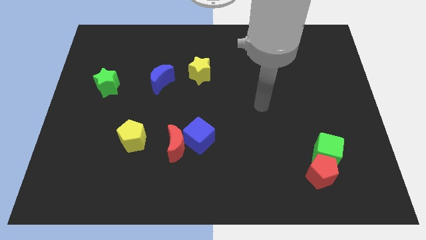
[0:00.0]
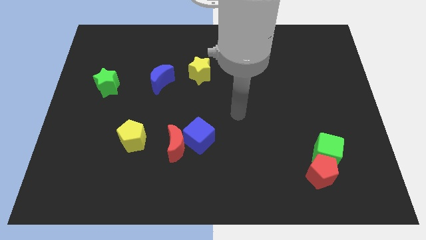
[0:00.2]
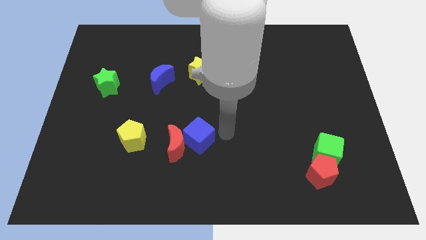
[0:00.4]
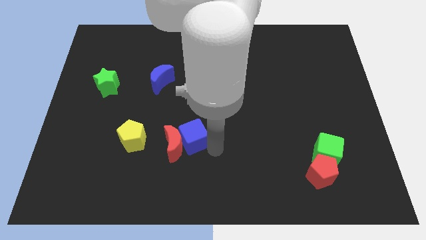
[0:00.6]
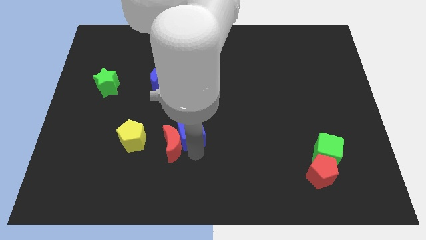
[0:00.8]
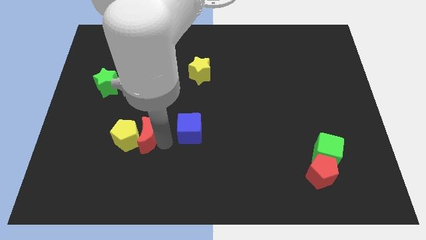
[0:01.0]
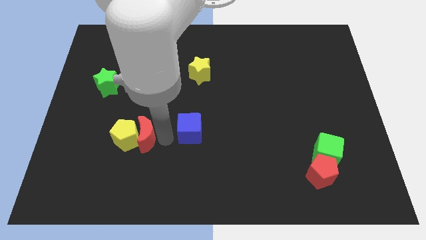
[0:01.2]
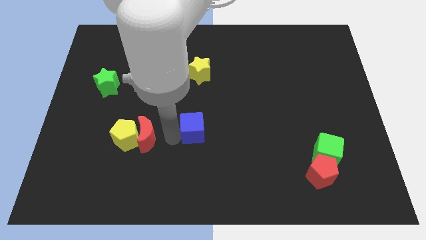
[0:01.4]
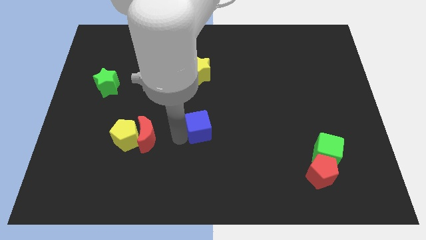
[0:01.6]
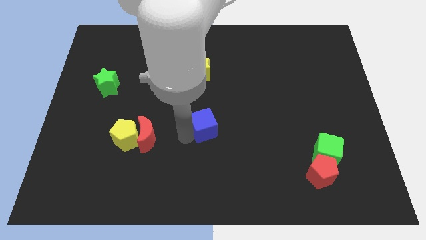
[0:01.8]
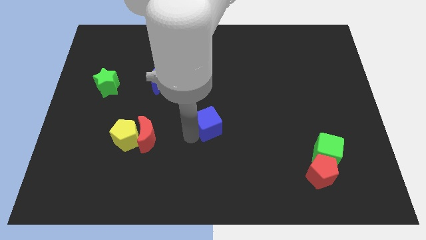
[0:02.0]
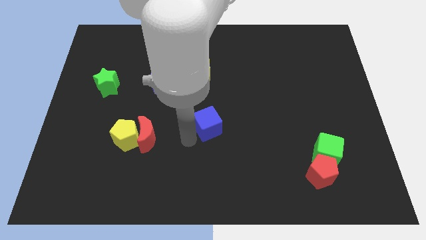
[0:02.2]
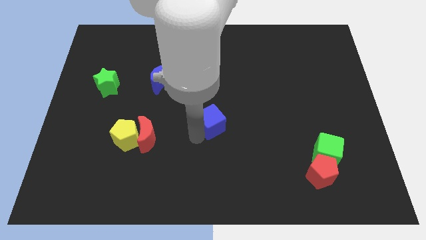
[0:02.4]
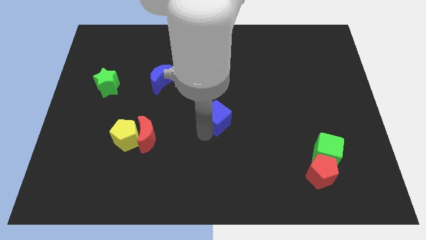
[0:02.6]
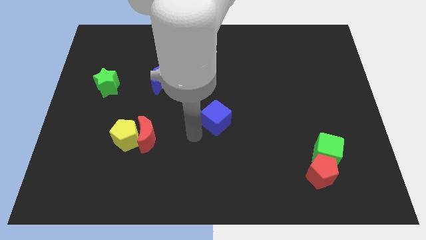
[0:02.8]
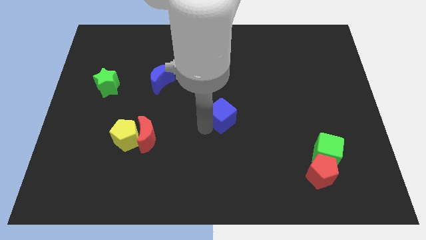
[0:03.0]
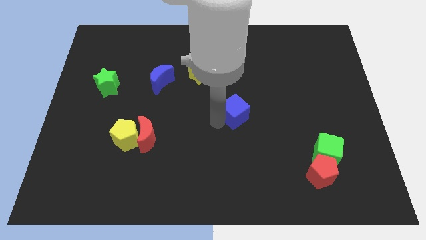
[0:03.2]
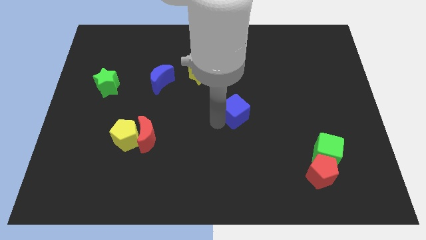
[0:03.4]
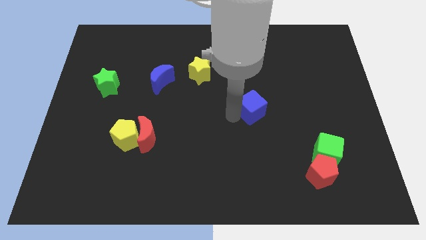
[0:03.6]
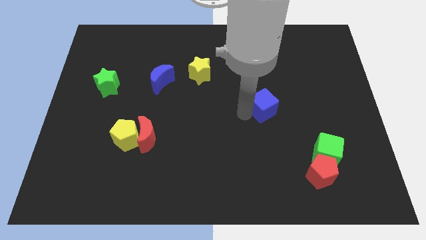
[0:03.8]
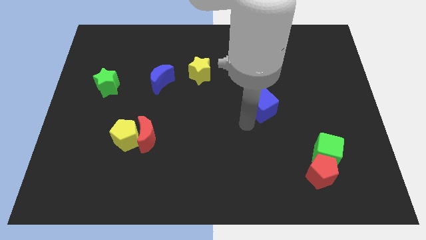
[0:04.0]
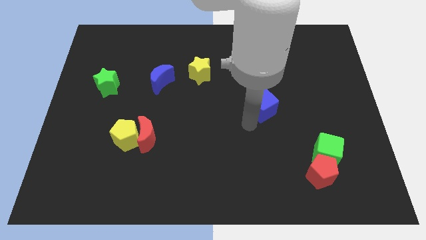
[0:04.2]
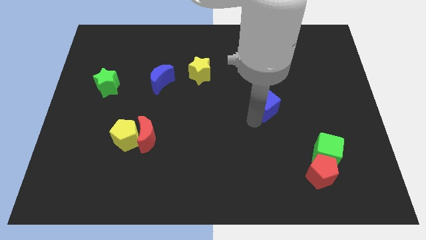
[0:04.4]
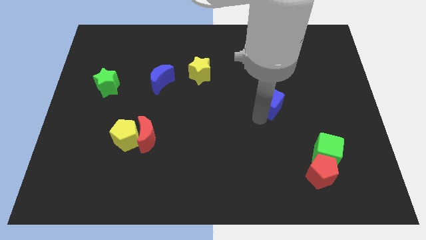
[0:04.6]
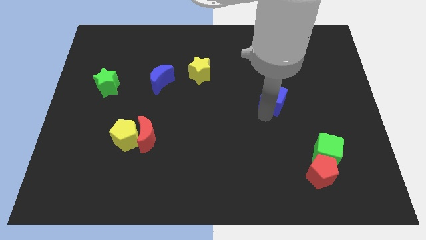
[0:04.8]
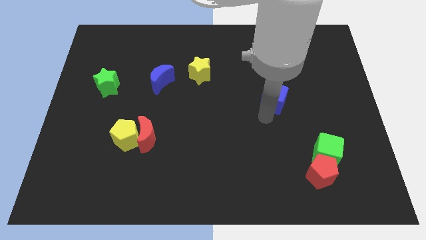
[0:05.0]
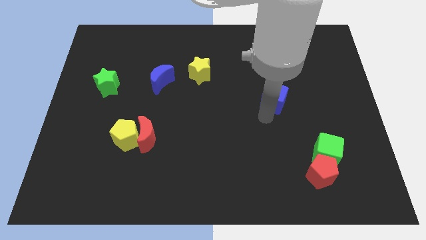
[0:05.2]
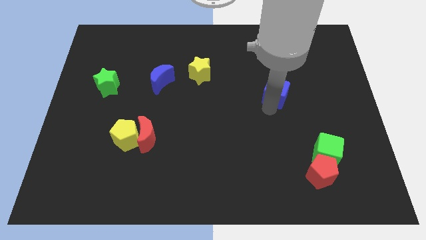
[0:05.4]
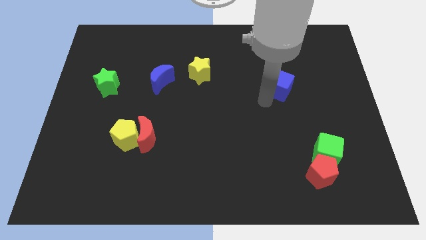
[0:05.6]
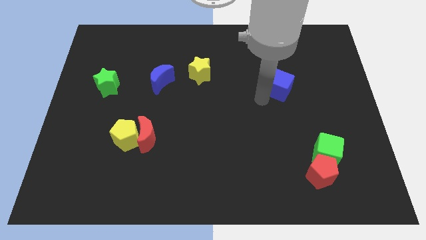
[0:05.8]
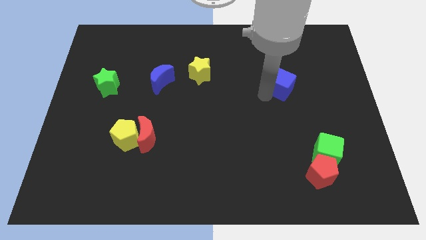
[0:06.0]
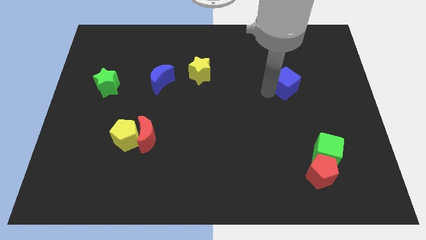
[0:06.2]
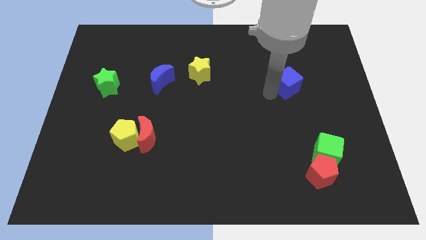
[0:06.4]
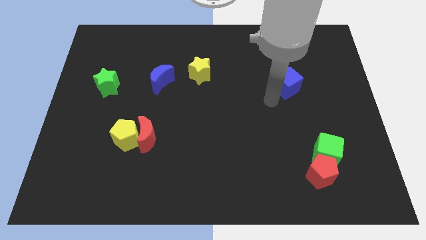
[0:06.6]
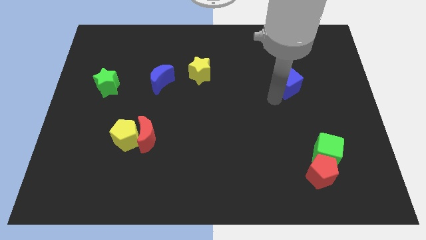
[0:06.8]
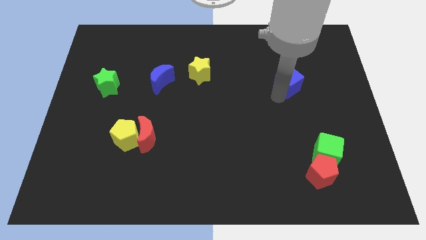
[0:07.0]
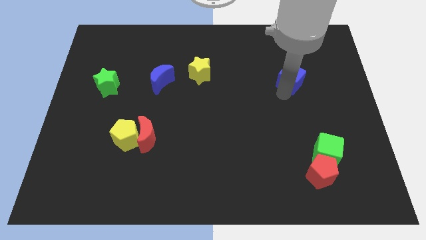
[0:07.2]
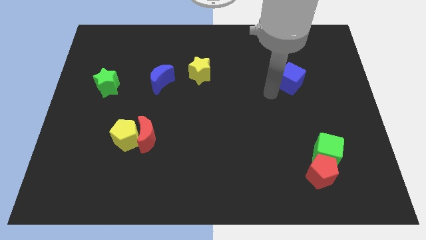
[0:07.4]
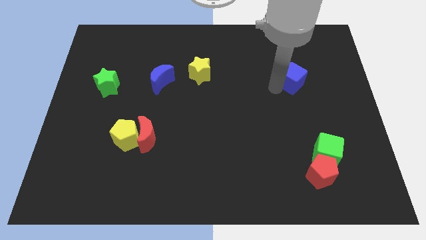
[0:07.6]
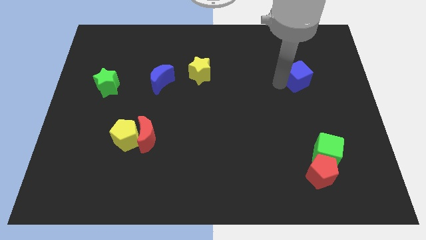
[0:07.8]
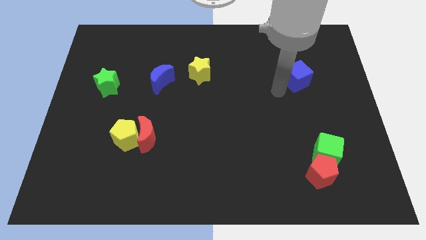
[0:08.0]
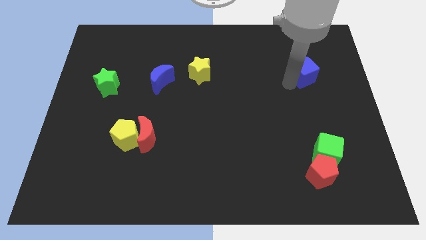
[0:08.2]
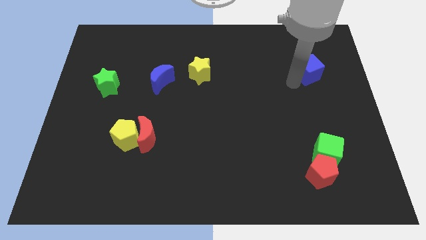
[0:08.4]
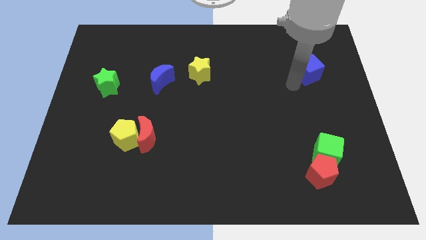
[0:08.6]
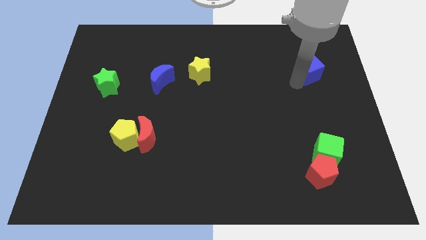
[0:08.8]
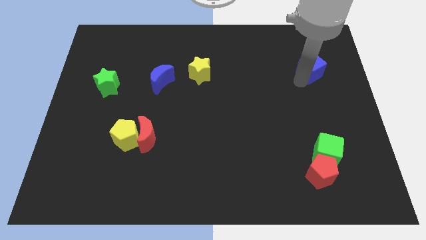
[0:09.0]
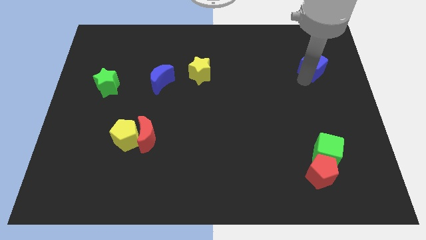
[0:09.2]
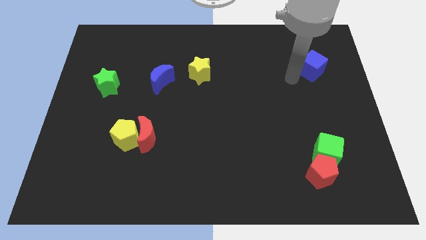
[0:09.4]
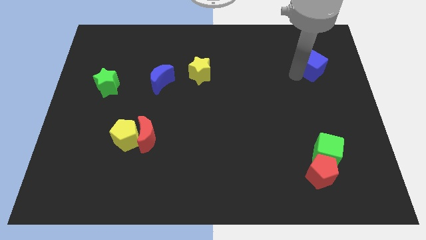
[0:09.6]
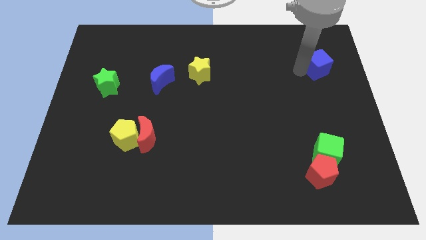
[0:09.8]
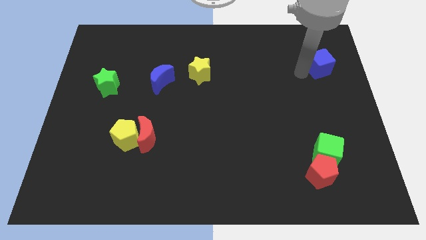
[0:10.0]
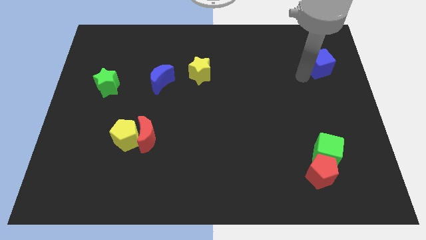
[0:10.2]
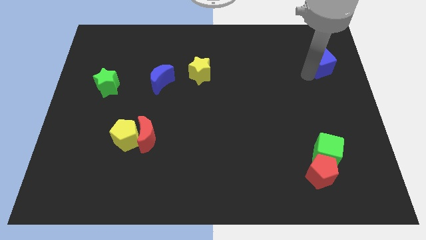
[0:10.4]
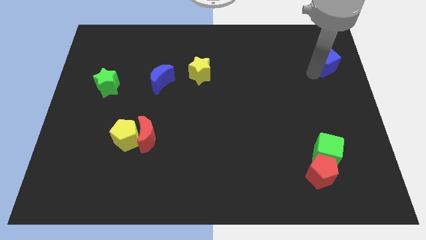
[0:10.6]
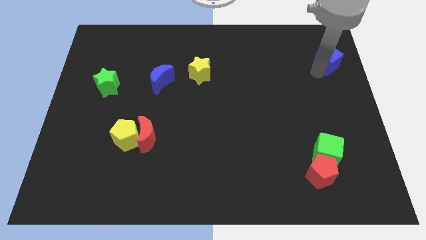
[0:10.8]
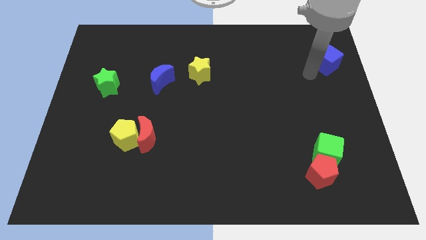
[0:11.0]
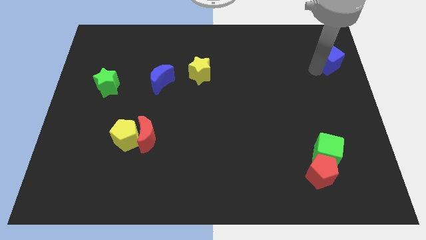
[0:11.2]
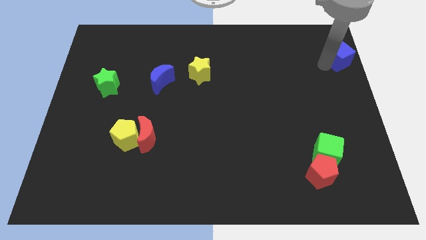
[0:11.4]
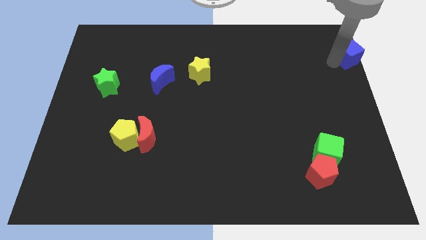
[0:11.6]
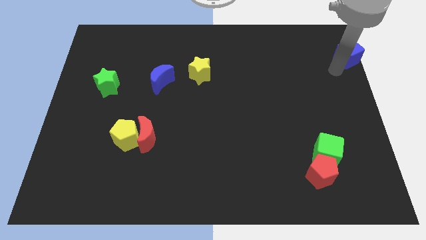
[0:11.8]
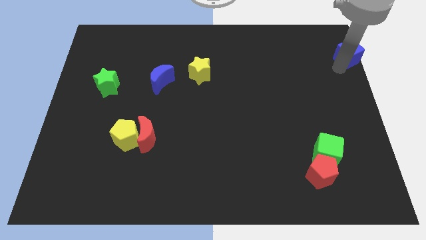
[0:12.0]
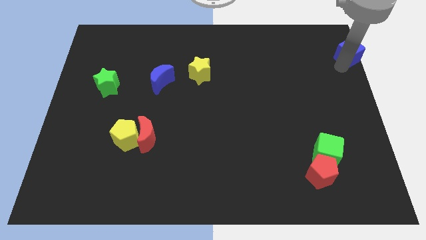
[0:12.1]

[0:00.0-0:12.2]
move the blue cube to the top right

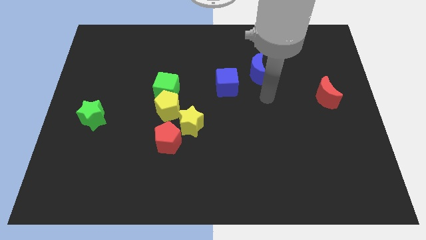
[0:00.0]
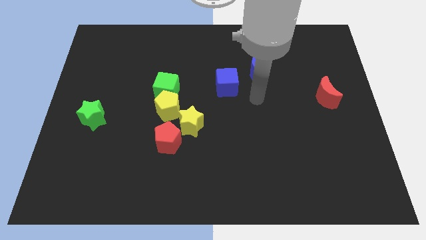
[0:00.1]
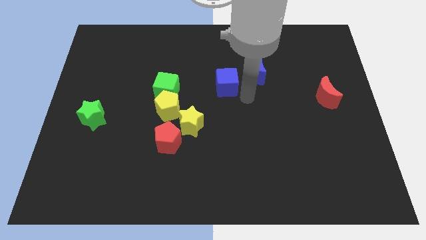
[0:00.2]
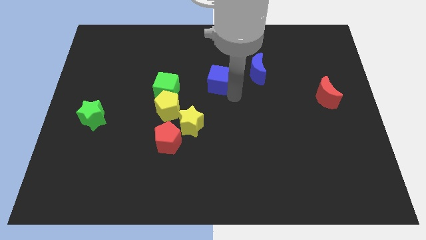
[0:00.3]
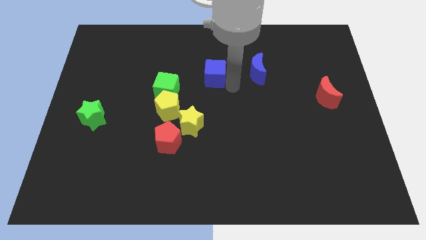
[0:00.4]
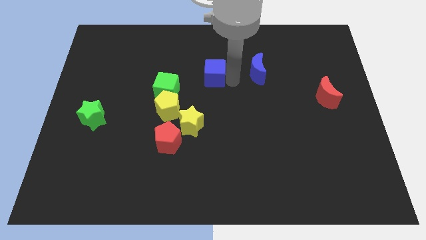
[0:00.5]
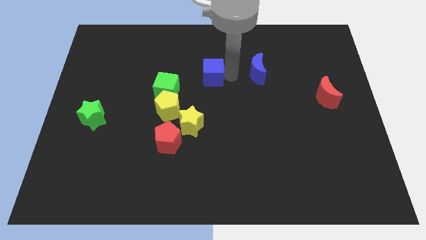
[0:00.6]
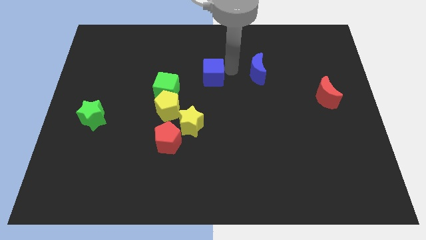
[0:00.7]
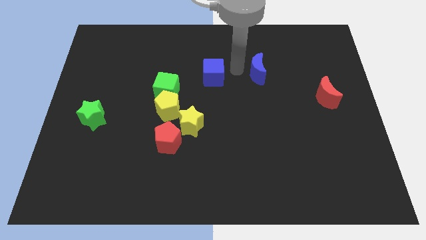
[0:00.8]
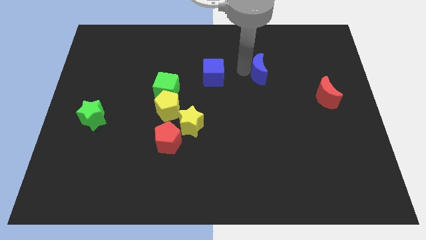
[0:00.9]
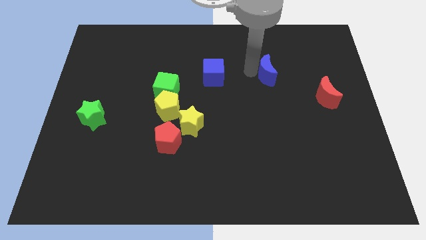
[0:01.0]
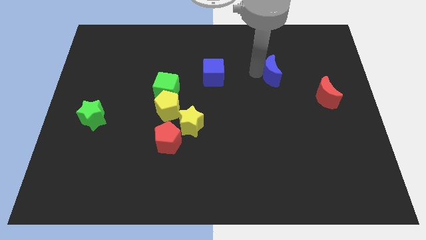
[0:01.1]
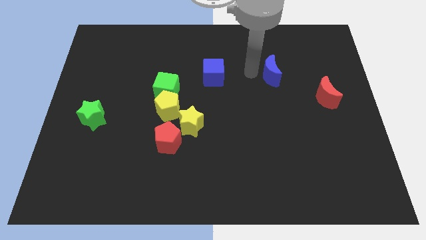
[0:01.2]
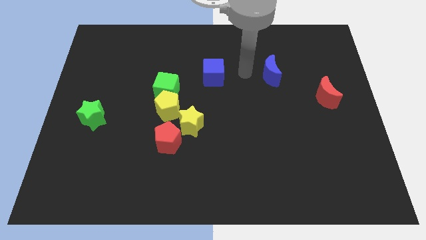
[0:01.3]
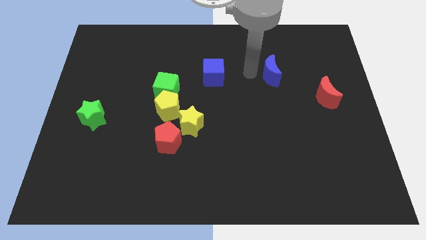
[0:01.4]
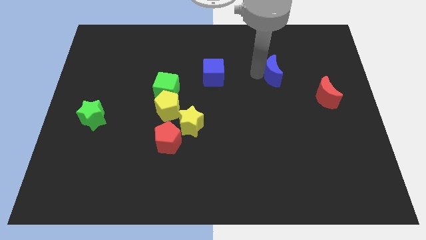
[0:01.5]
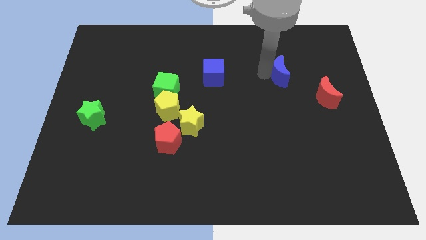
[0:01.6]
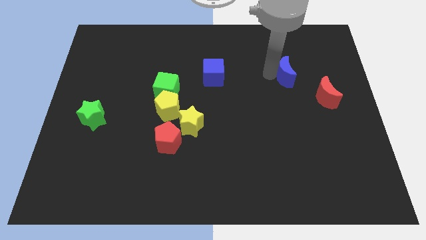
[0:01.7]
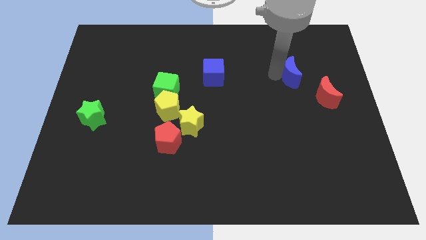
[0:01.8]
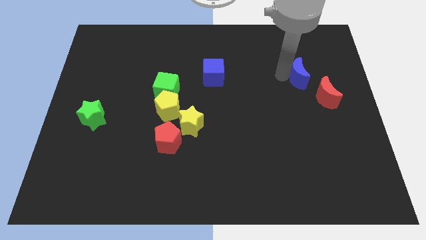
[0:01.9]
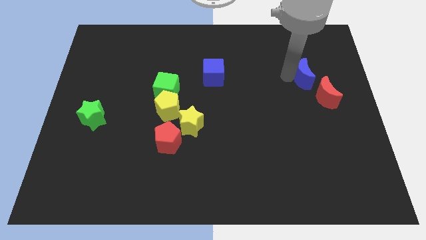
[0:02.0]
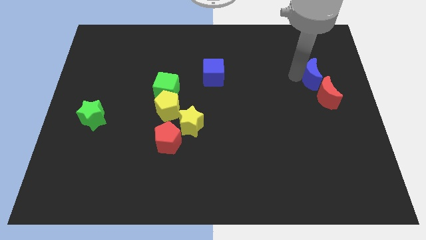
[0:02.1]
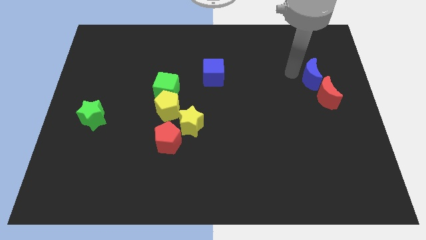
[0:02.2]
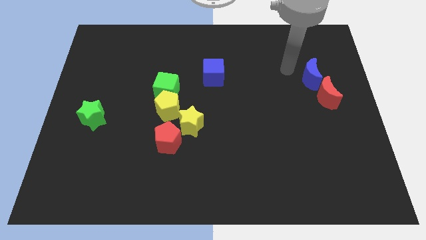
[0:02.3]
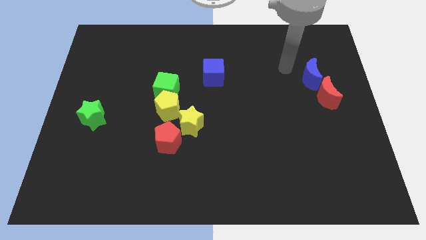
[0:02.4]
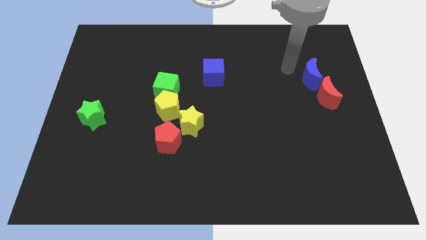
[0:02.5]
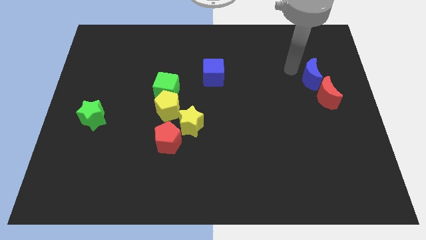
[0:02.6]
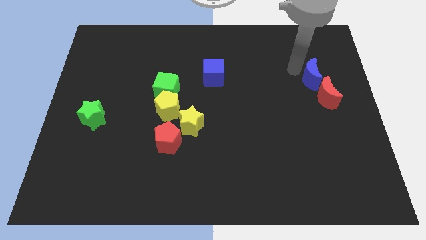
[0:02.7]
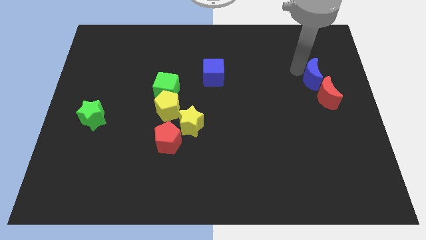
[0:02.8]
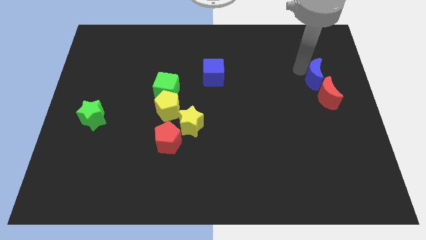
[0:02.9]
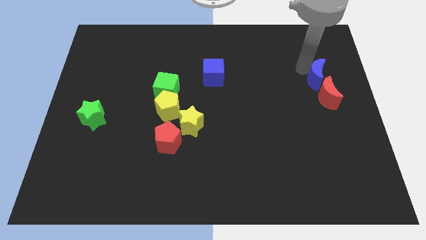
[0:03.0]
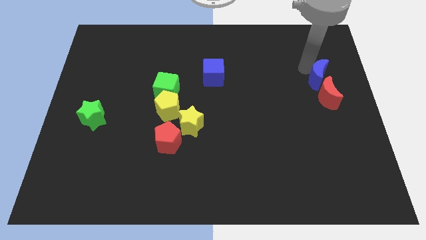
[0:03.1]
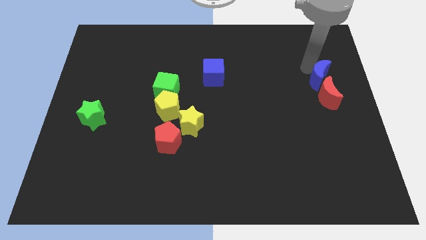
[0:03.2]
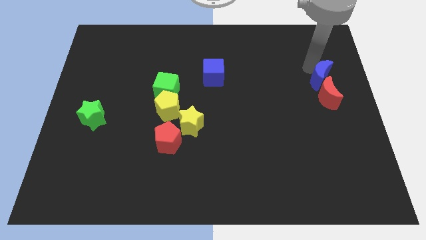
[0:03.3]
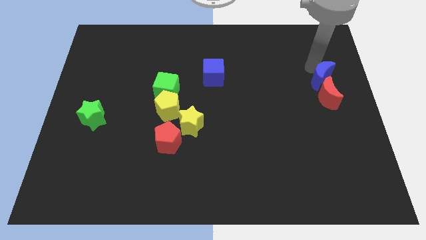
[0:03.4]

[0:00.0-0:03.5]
move the blue moon to the right side of the board
